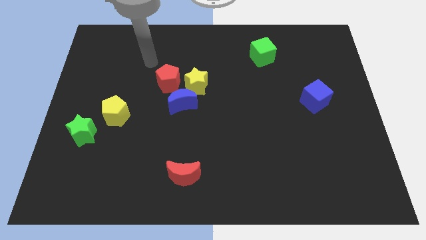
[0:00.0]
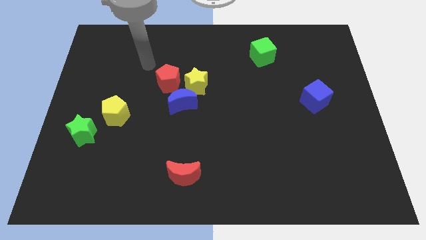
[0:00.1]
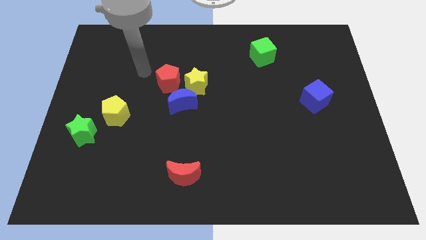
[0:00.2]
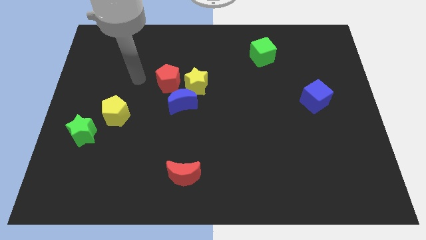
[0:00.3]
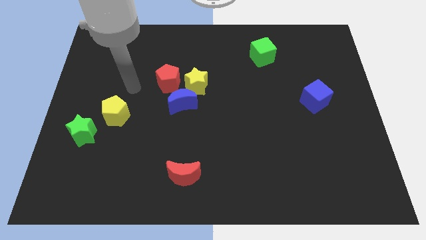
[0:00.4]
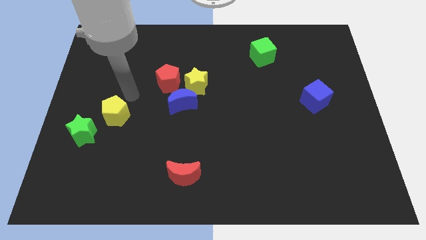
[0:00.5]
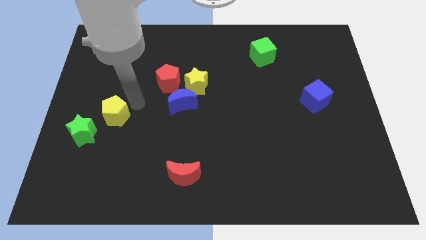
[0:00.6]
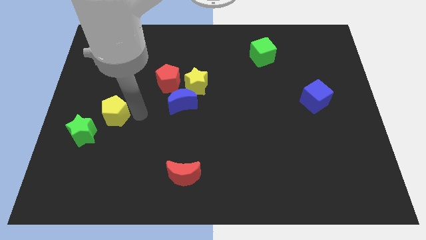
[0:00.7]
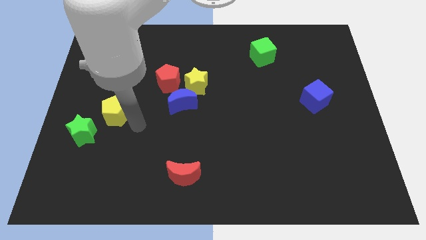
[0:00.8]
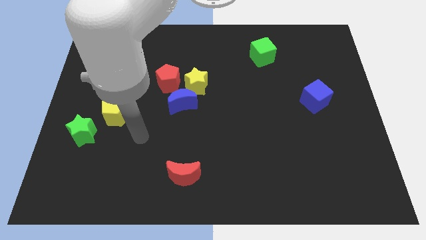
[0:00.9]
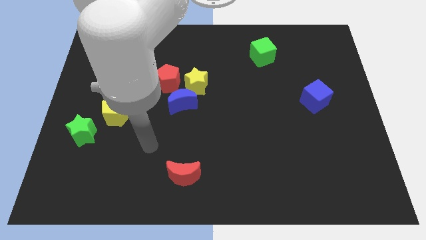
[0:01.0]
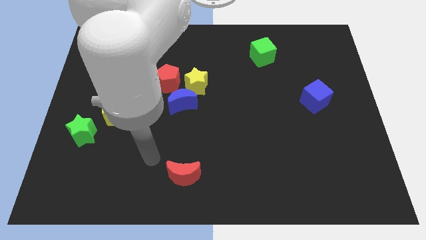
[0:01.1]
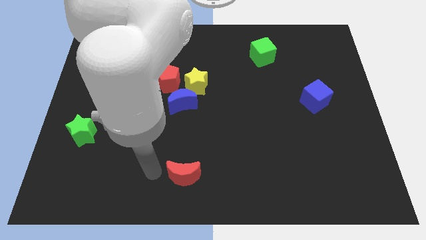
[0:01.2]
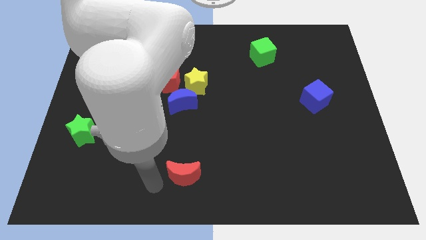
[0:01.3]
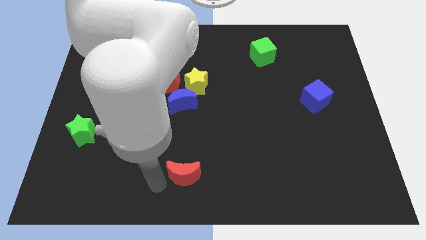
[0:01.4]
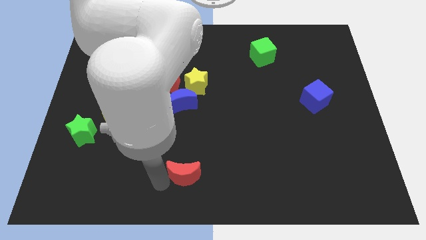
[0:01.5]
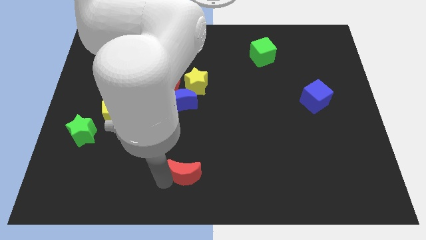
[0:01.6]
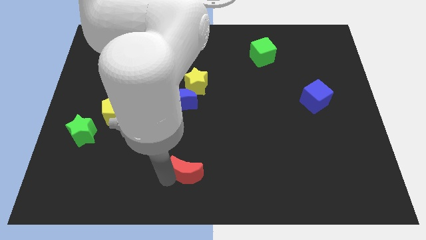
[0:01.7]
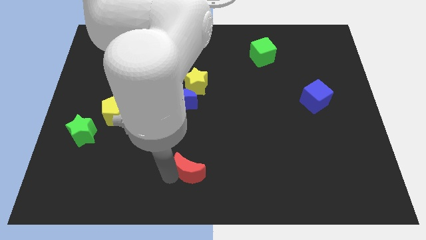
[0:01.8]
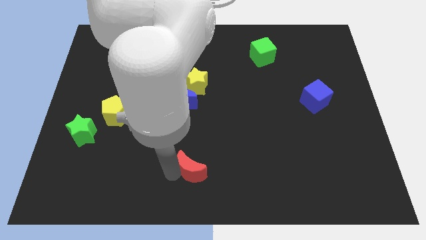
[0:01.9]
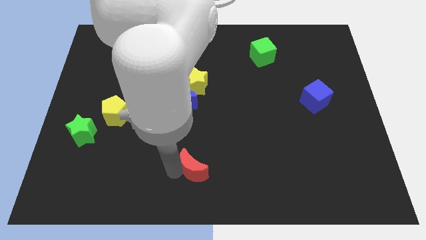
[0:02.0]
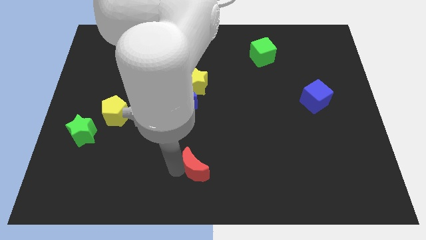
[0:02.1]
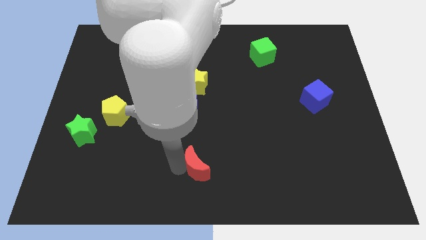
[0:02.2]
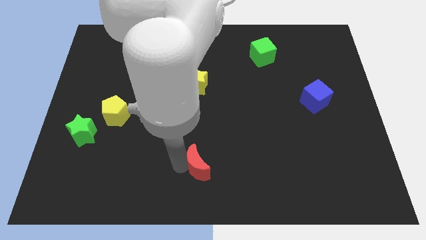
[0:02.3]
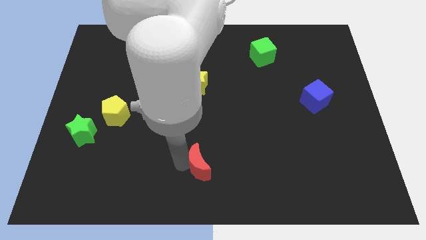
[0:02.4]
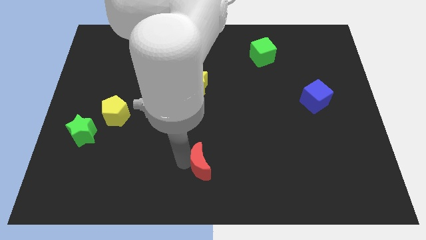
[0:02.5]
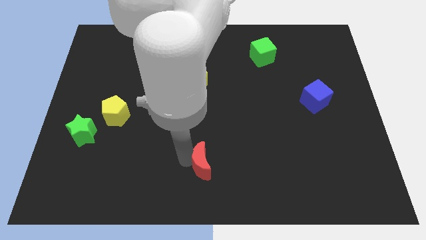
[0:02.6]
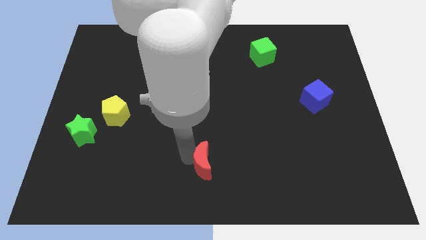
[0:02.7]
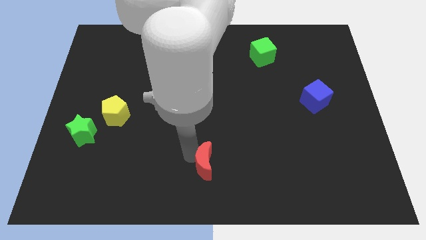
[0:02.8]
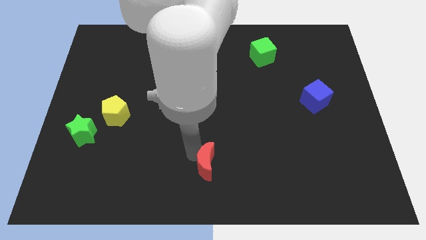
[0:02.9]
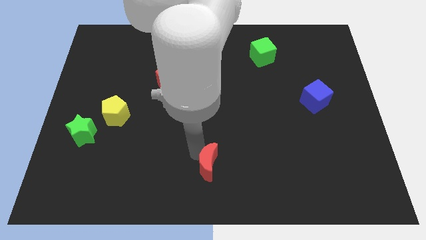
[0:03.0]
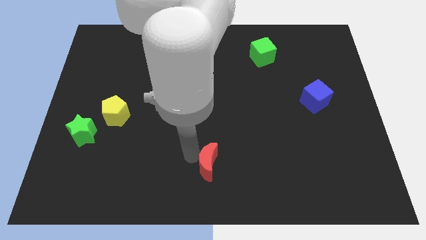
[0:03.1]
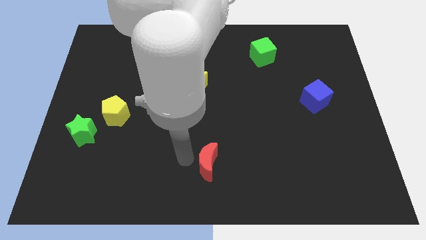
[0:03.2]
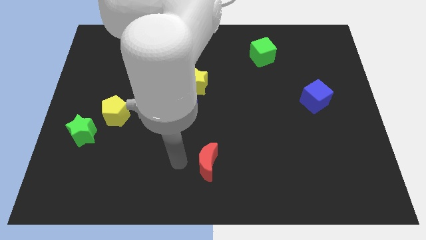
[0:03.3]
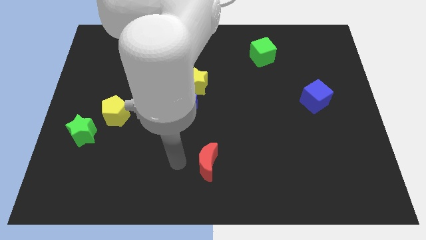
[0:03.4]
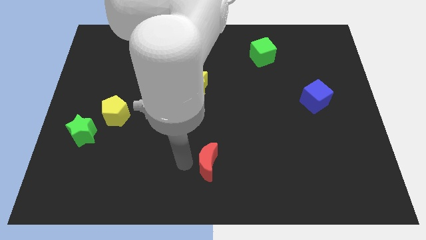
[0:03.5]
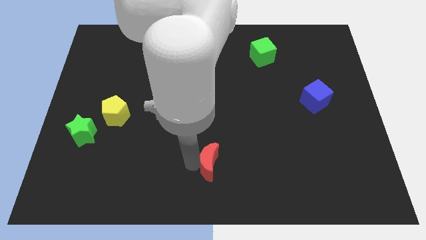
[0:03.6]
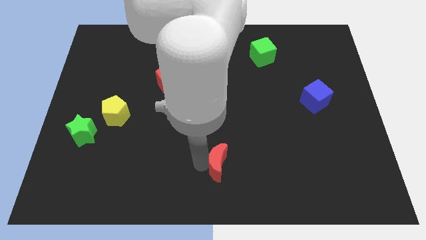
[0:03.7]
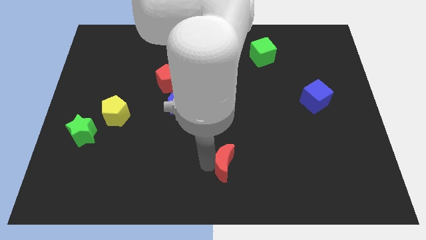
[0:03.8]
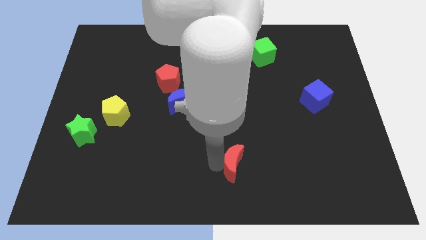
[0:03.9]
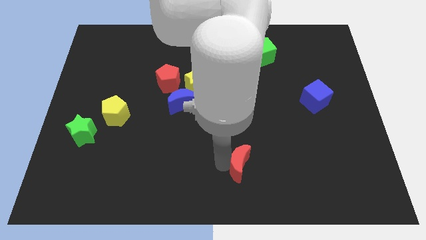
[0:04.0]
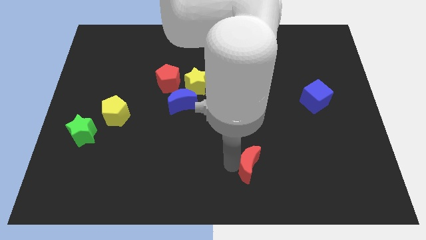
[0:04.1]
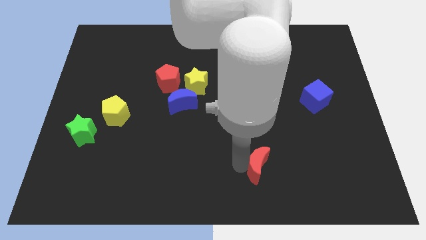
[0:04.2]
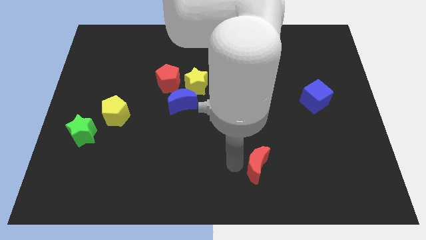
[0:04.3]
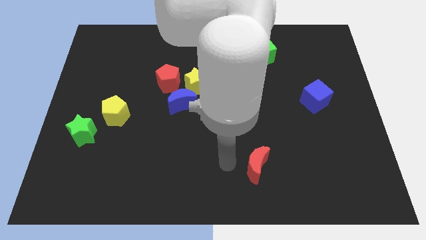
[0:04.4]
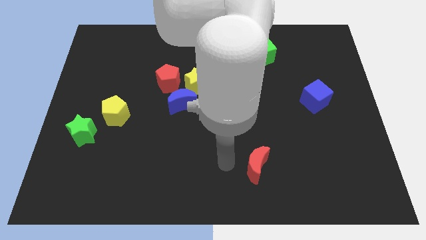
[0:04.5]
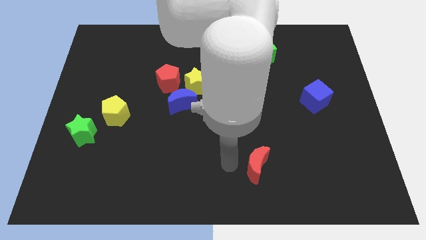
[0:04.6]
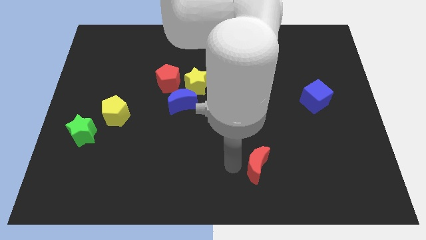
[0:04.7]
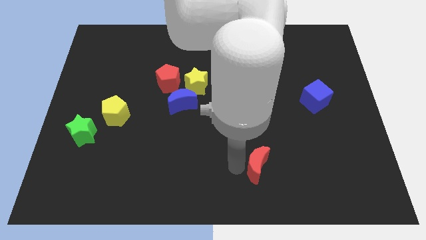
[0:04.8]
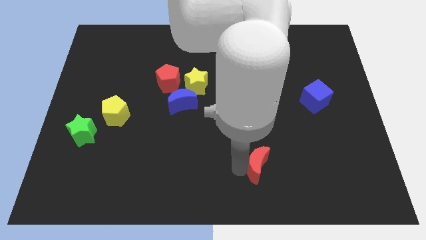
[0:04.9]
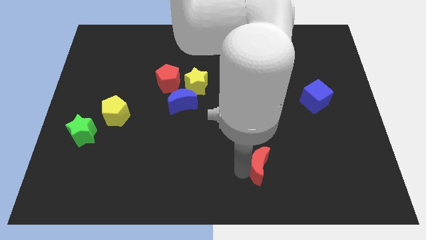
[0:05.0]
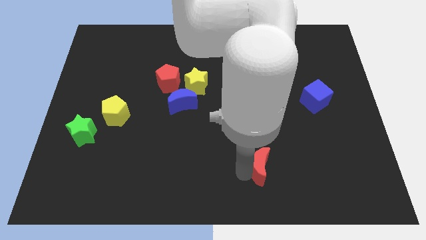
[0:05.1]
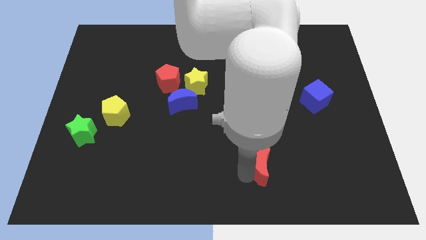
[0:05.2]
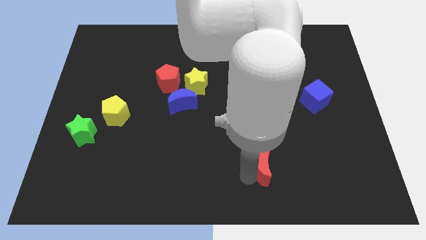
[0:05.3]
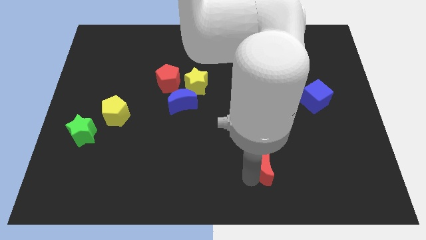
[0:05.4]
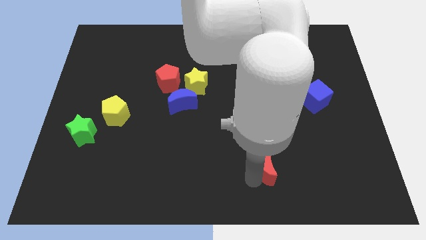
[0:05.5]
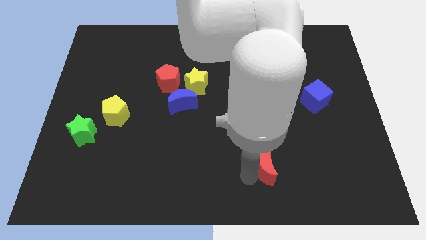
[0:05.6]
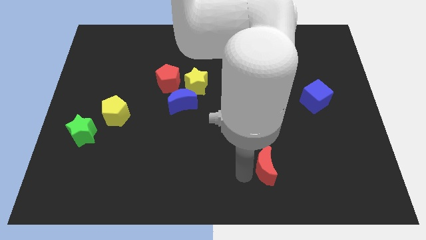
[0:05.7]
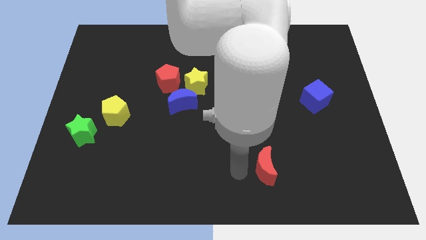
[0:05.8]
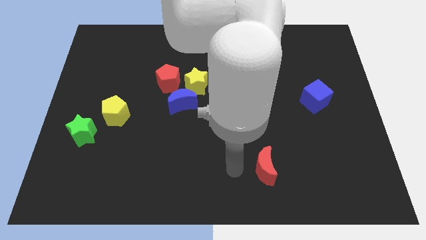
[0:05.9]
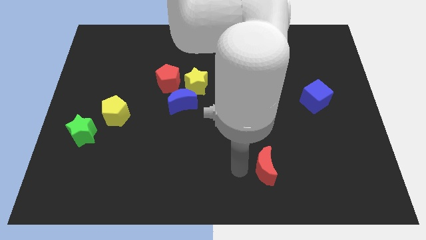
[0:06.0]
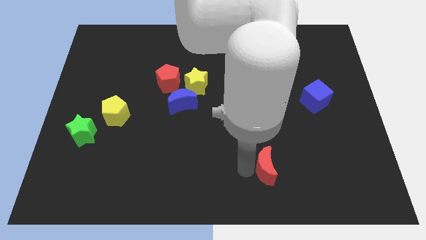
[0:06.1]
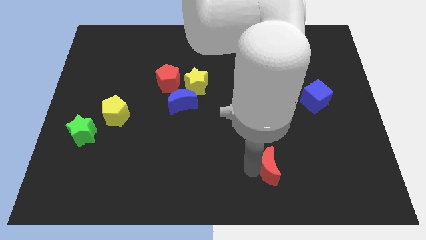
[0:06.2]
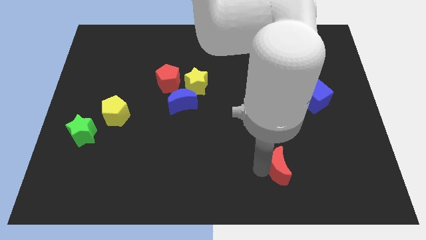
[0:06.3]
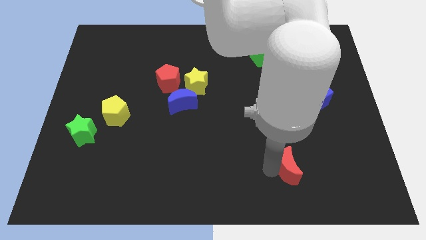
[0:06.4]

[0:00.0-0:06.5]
push the red moon right

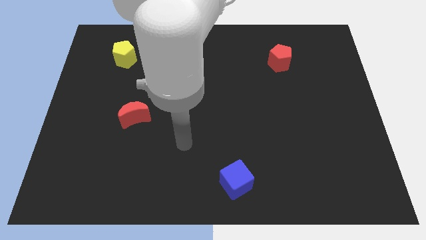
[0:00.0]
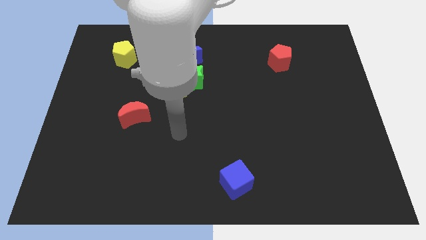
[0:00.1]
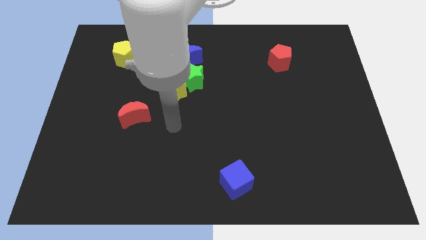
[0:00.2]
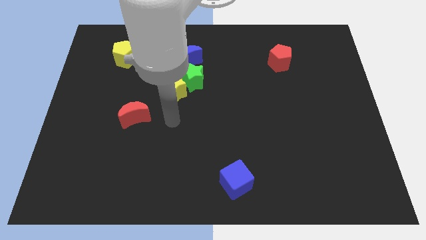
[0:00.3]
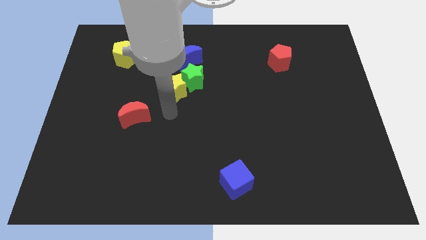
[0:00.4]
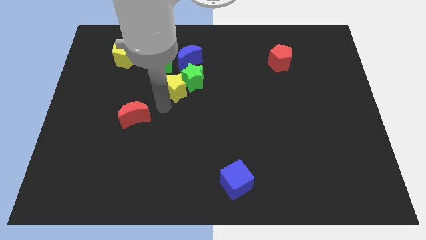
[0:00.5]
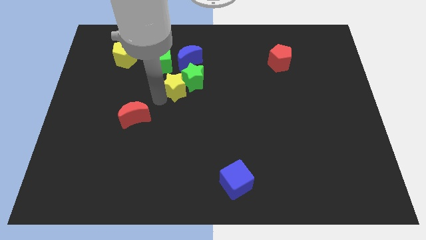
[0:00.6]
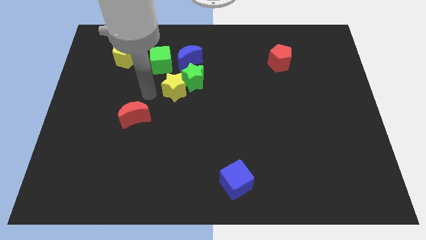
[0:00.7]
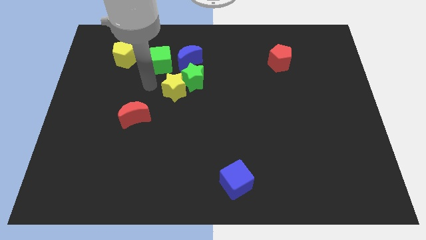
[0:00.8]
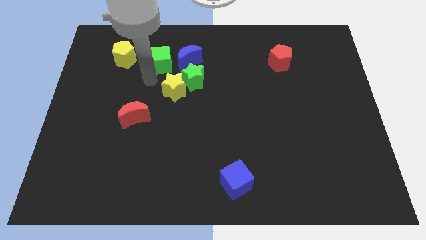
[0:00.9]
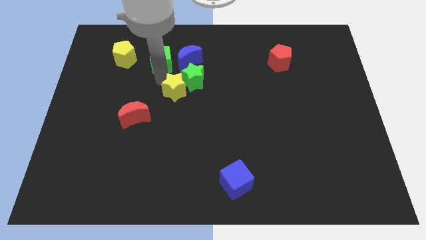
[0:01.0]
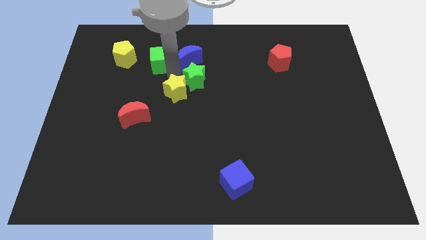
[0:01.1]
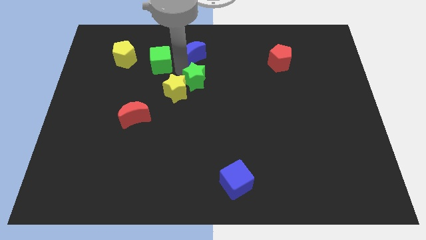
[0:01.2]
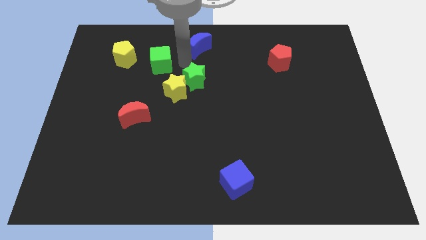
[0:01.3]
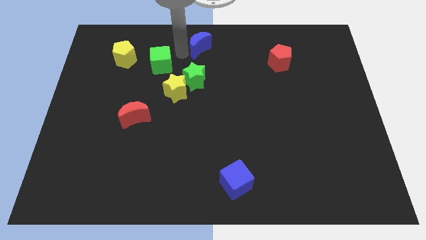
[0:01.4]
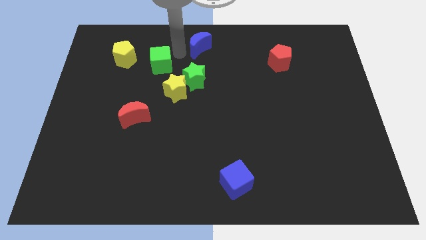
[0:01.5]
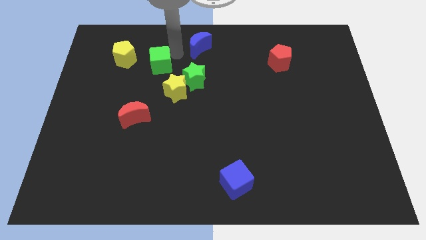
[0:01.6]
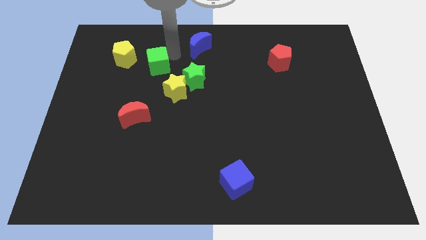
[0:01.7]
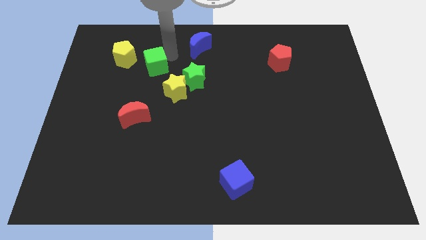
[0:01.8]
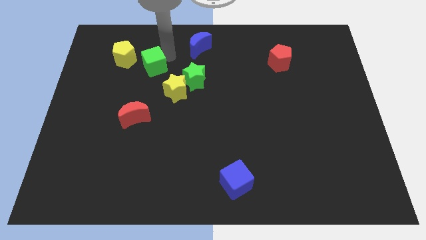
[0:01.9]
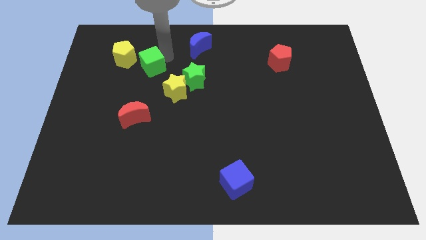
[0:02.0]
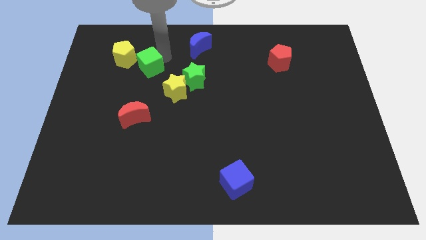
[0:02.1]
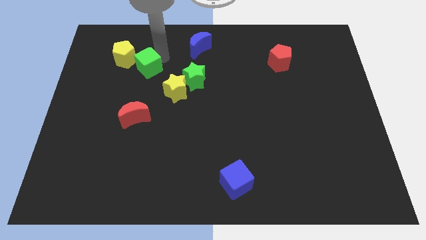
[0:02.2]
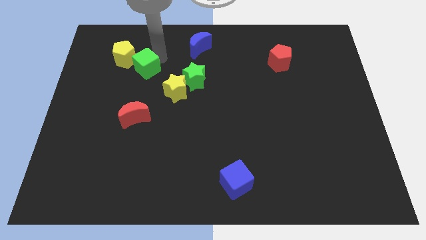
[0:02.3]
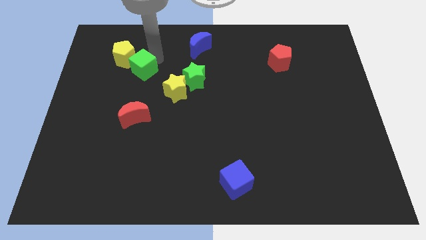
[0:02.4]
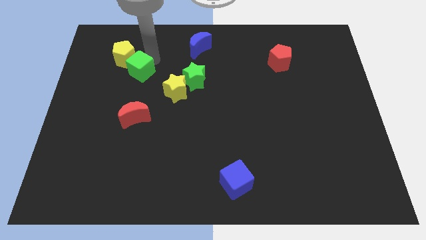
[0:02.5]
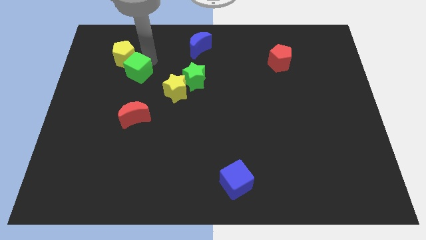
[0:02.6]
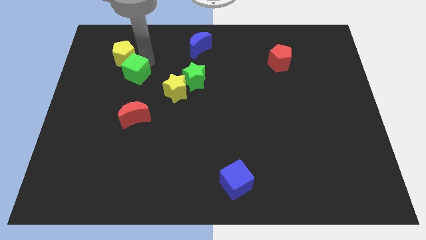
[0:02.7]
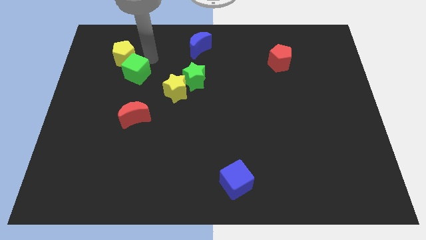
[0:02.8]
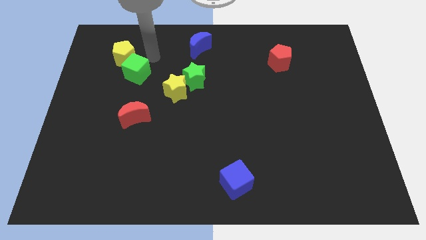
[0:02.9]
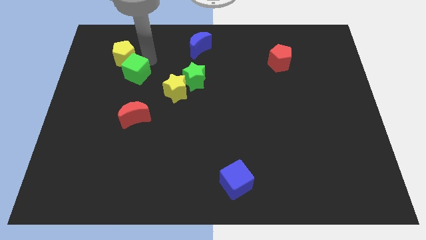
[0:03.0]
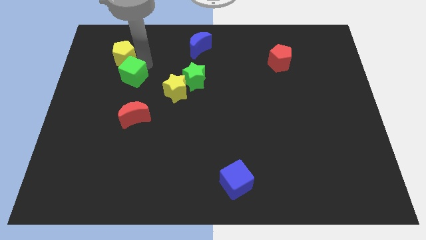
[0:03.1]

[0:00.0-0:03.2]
move the green cube diagonally down and to the left a bit
